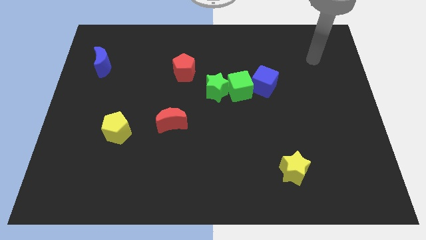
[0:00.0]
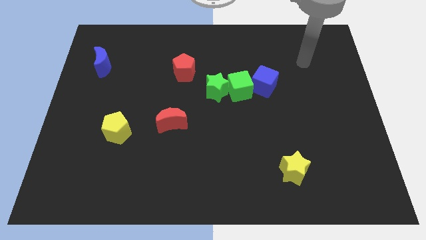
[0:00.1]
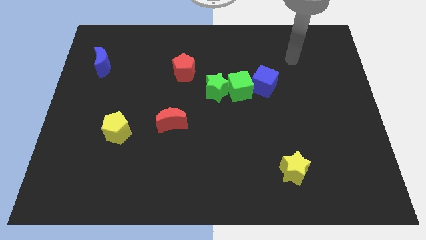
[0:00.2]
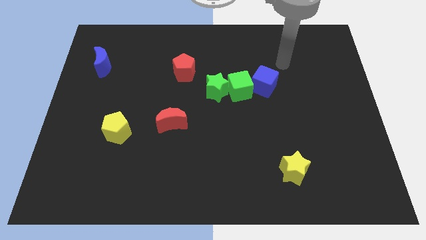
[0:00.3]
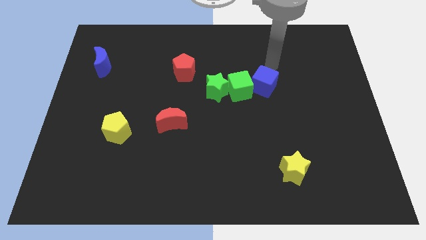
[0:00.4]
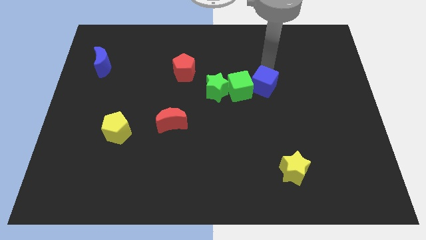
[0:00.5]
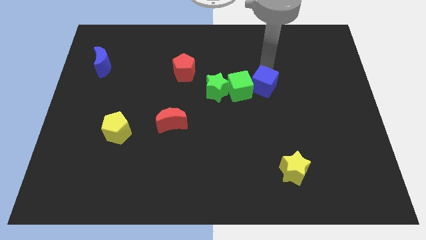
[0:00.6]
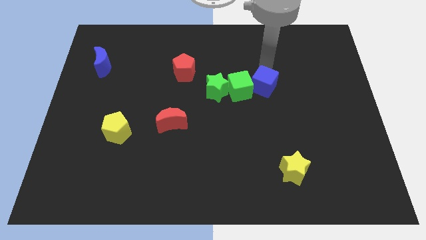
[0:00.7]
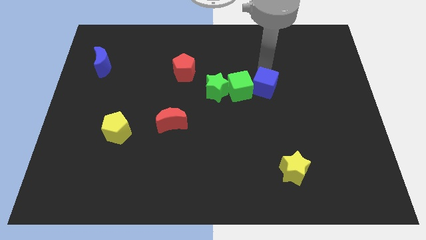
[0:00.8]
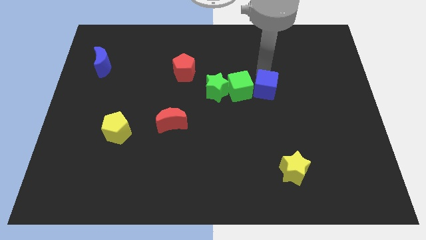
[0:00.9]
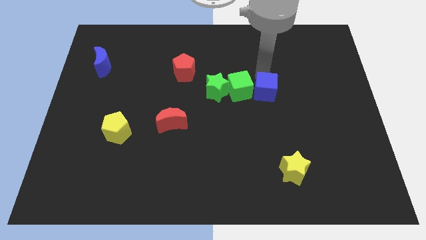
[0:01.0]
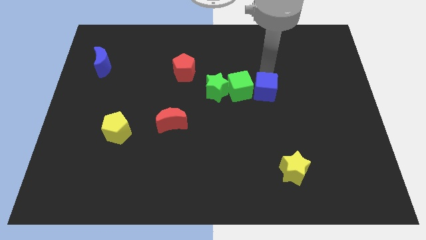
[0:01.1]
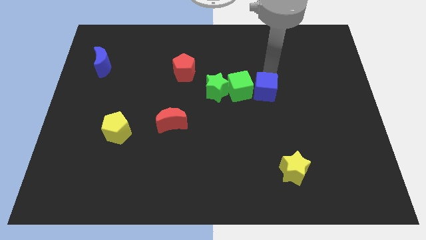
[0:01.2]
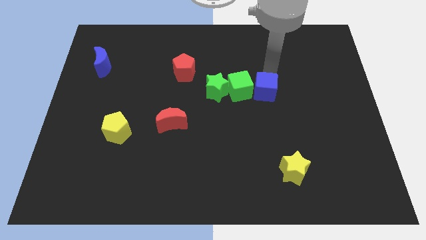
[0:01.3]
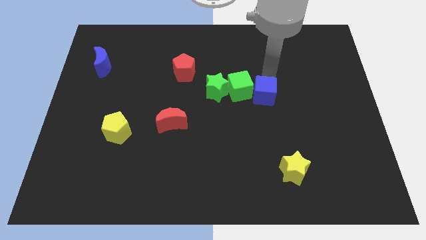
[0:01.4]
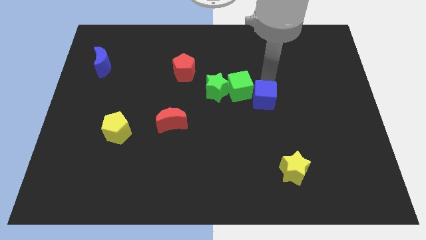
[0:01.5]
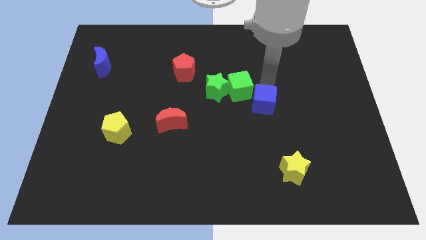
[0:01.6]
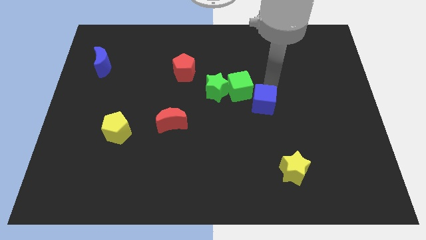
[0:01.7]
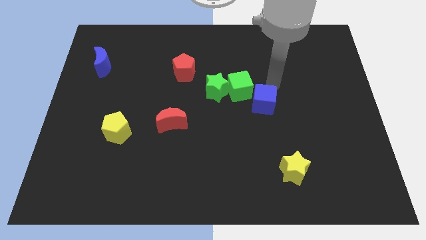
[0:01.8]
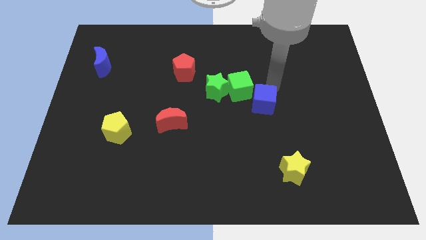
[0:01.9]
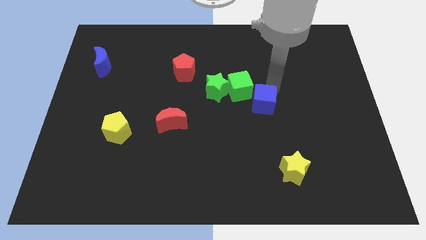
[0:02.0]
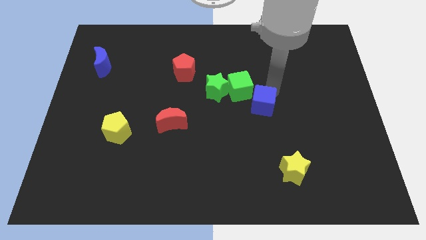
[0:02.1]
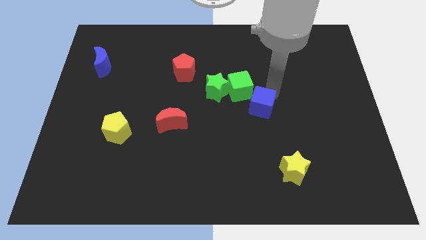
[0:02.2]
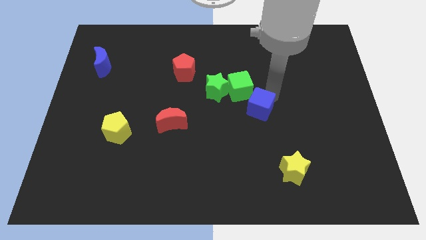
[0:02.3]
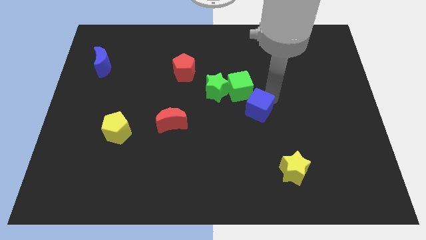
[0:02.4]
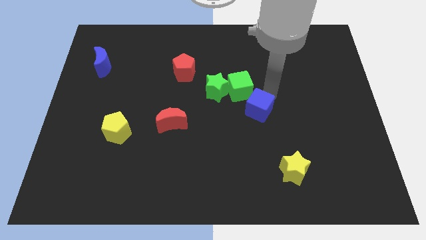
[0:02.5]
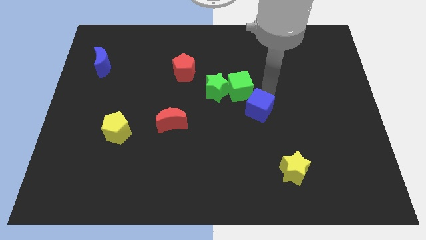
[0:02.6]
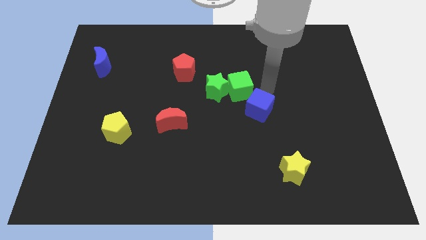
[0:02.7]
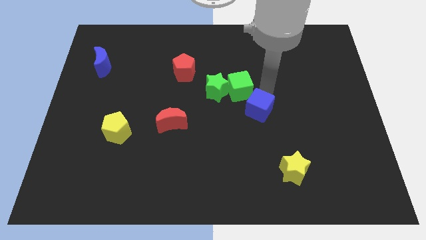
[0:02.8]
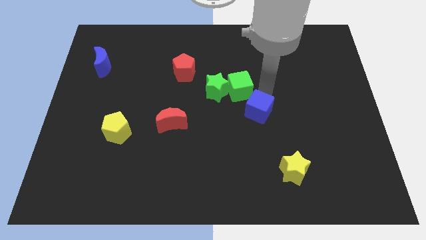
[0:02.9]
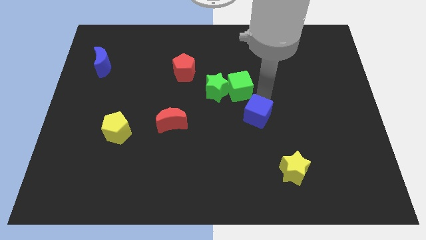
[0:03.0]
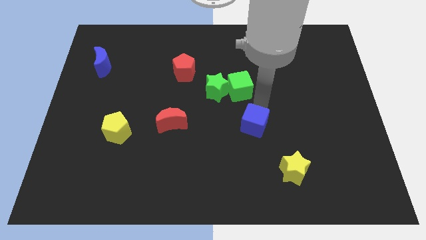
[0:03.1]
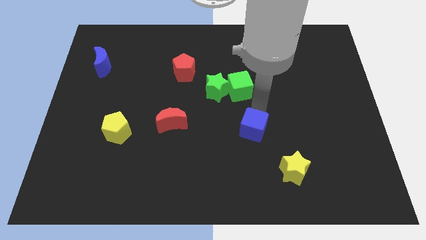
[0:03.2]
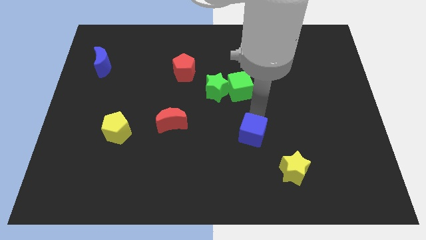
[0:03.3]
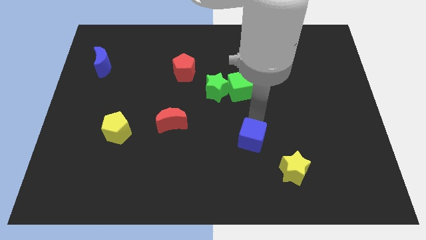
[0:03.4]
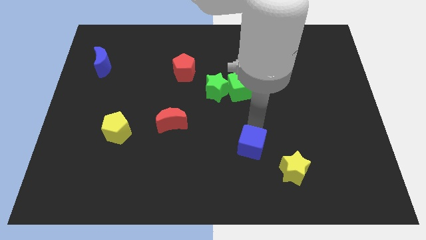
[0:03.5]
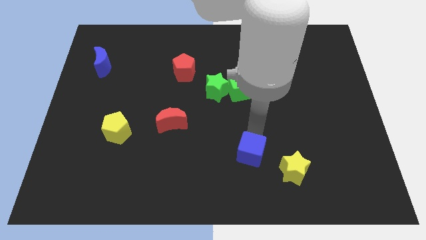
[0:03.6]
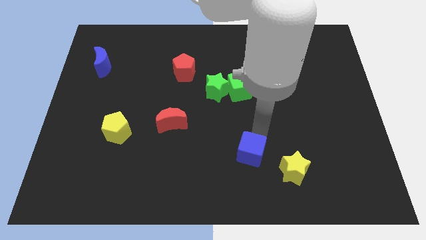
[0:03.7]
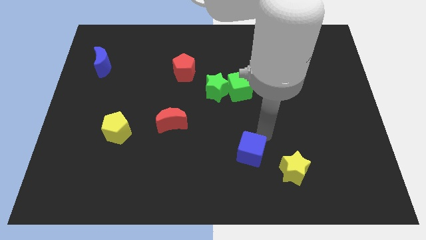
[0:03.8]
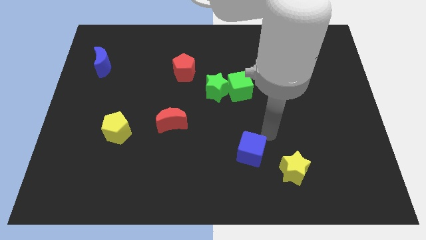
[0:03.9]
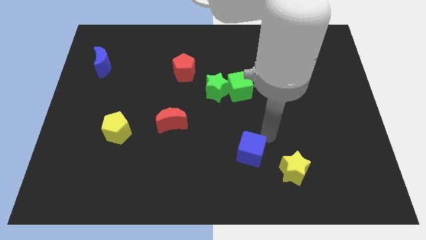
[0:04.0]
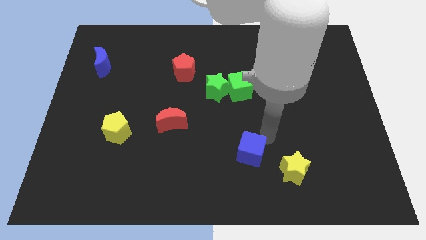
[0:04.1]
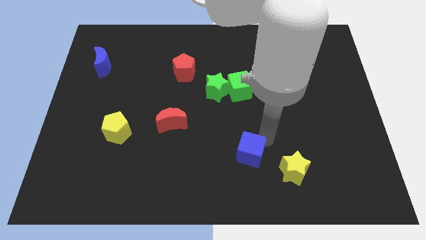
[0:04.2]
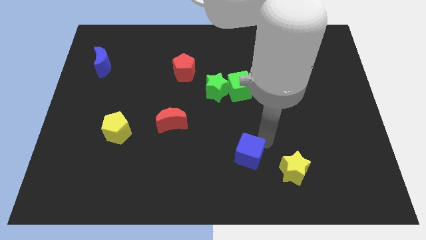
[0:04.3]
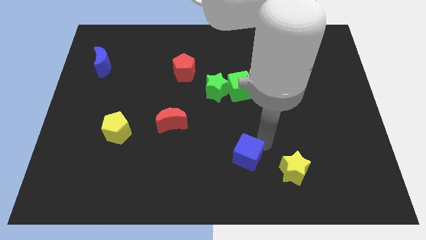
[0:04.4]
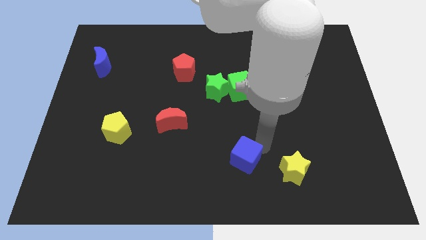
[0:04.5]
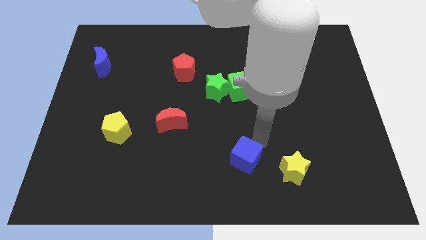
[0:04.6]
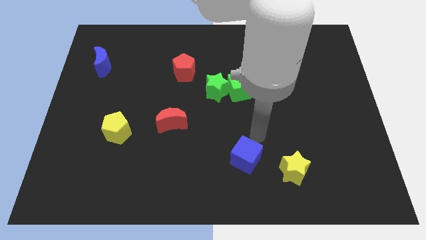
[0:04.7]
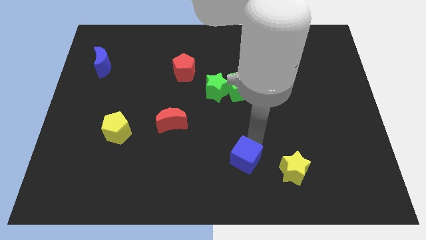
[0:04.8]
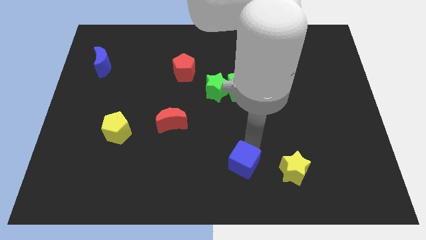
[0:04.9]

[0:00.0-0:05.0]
put the blue cube to the bottom

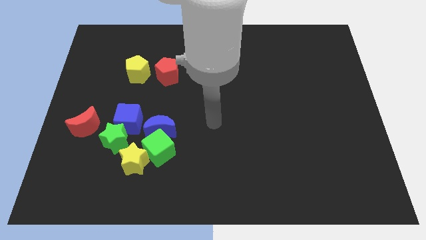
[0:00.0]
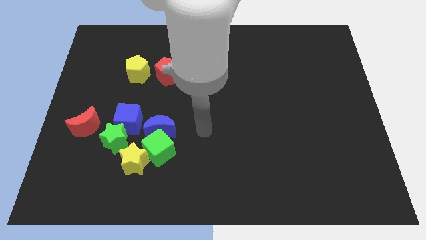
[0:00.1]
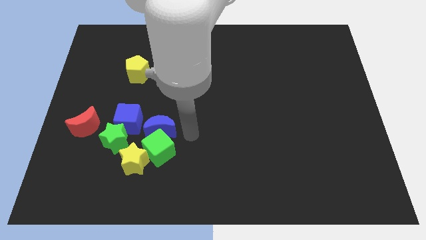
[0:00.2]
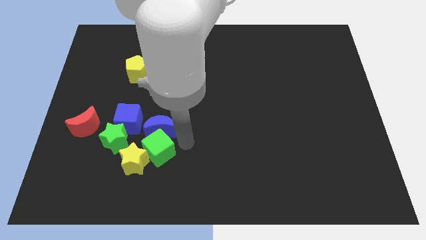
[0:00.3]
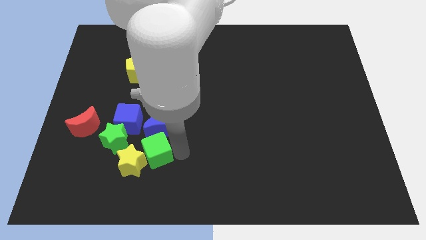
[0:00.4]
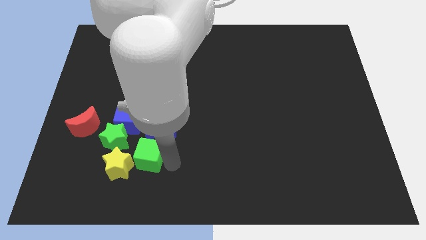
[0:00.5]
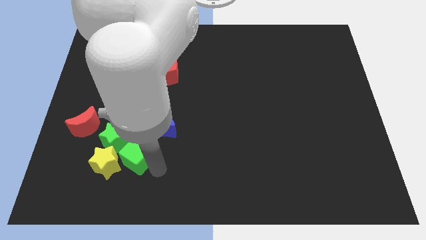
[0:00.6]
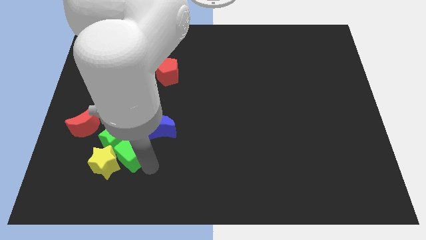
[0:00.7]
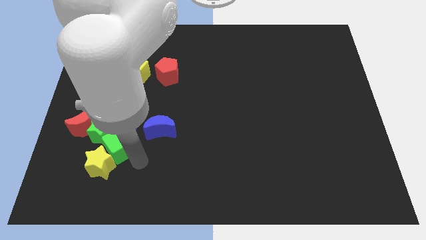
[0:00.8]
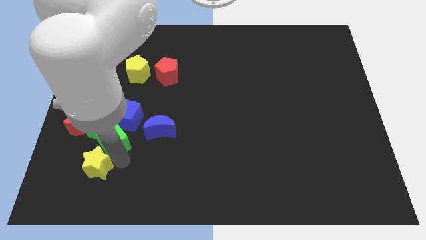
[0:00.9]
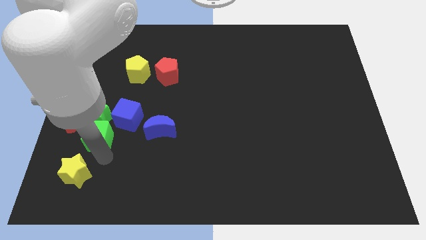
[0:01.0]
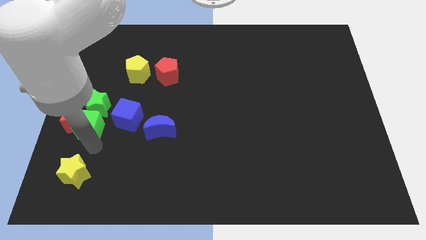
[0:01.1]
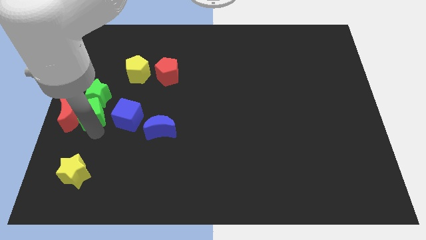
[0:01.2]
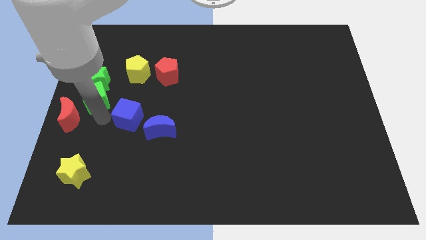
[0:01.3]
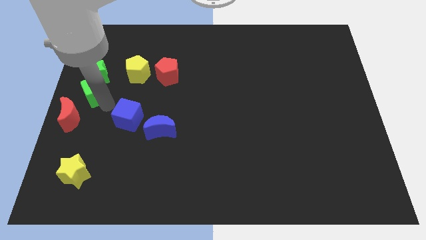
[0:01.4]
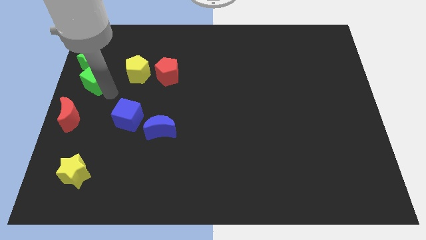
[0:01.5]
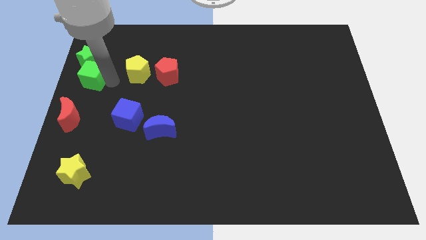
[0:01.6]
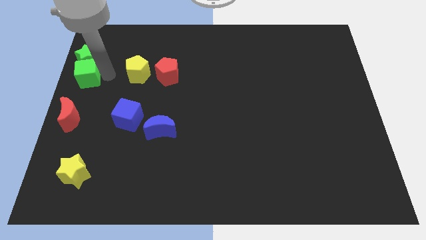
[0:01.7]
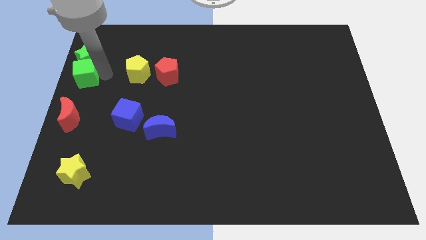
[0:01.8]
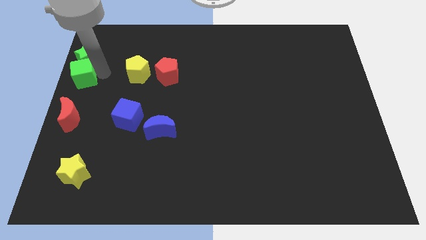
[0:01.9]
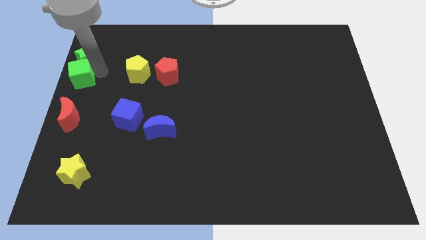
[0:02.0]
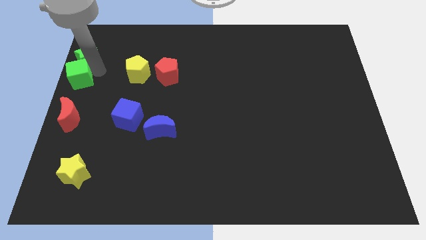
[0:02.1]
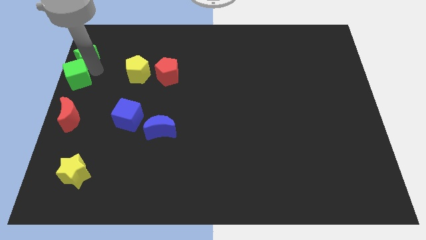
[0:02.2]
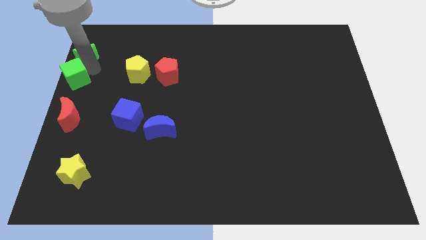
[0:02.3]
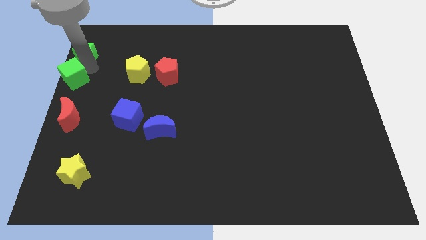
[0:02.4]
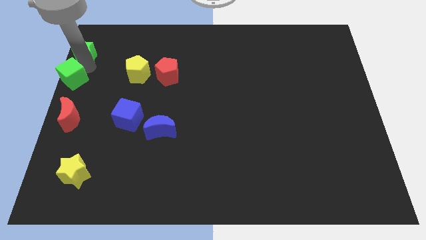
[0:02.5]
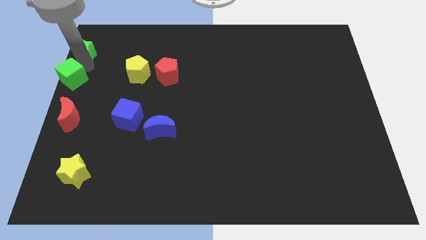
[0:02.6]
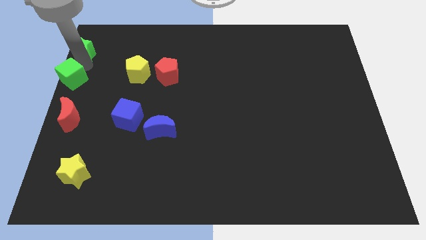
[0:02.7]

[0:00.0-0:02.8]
put the green star to the upper left corner

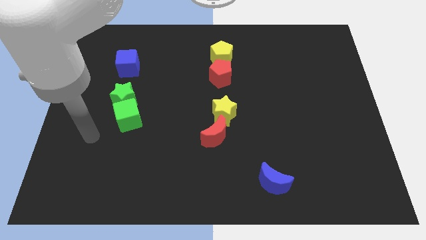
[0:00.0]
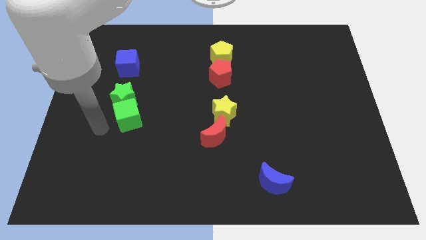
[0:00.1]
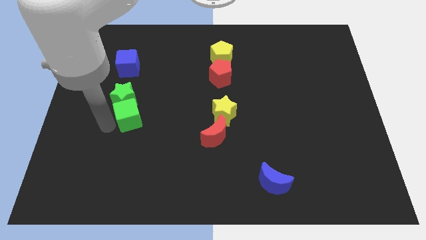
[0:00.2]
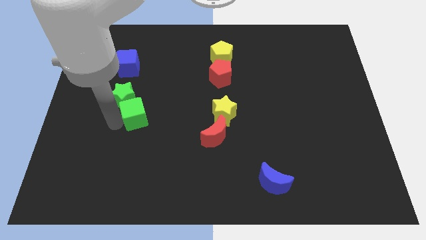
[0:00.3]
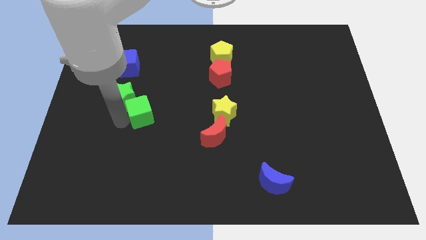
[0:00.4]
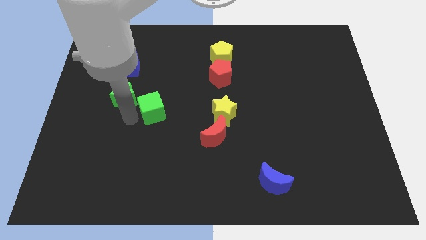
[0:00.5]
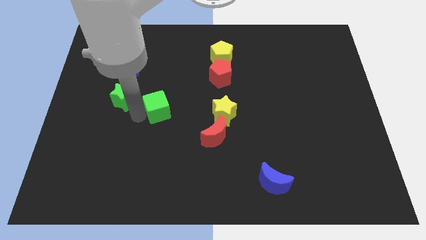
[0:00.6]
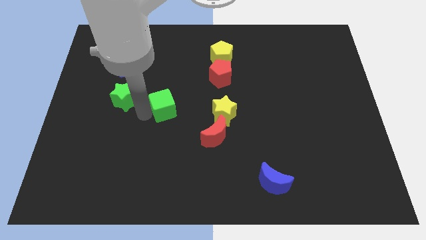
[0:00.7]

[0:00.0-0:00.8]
push the green cube to the center of the board
